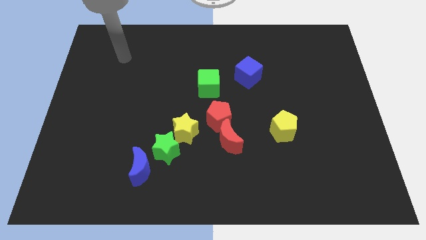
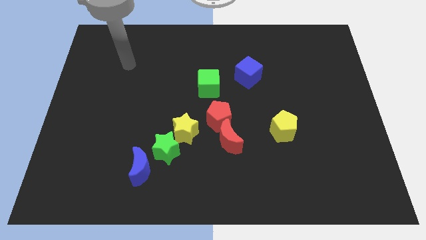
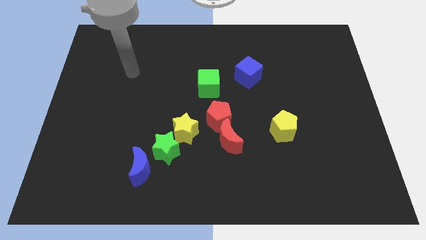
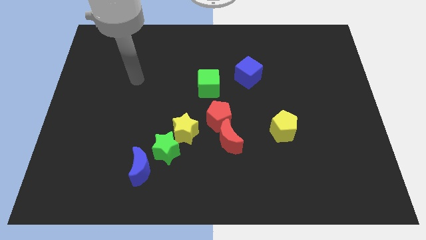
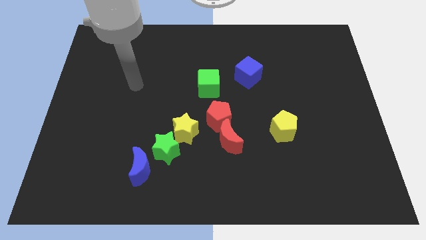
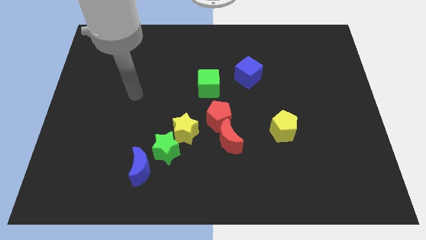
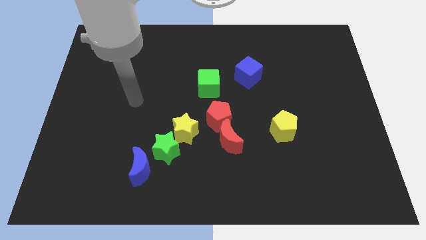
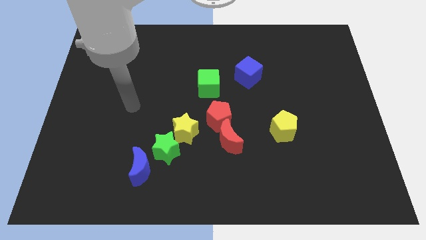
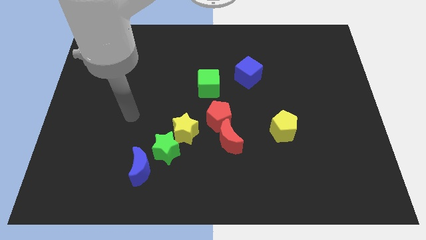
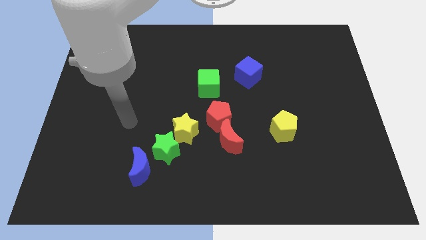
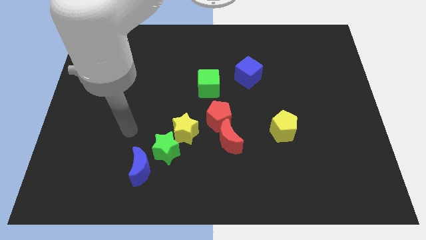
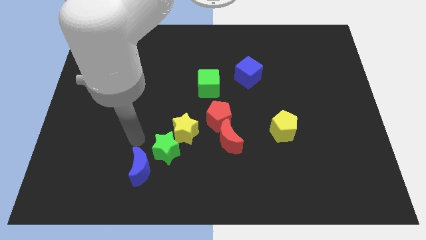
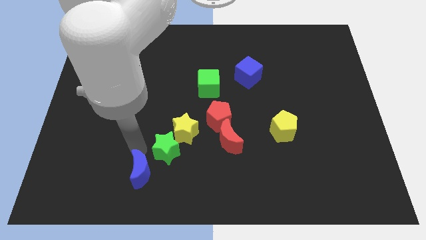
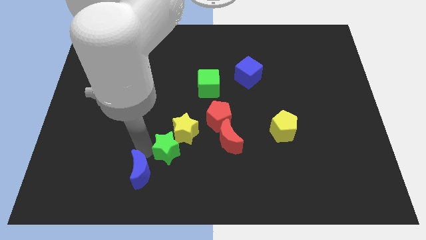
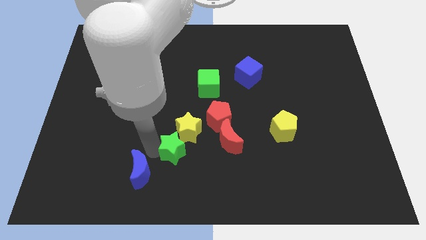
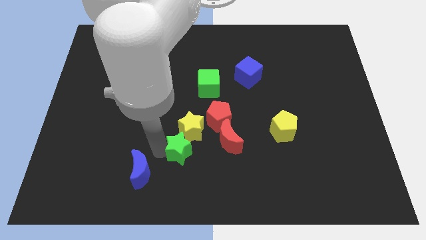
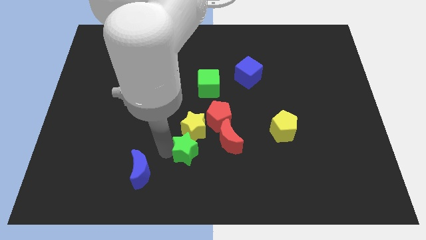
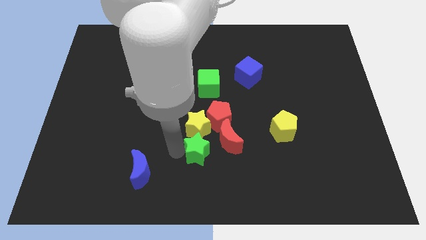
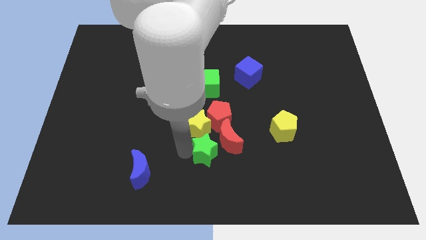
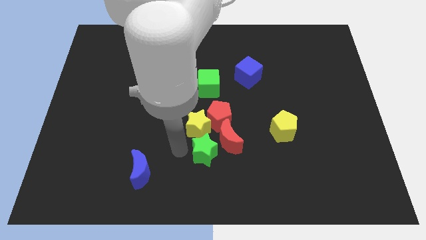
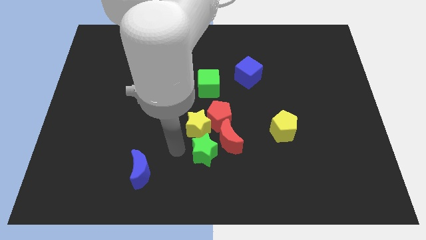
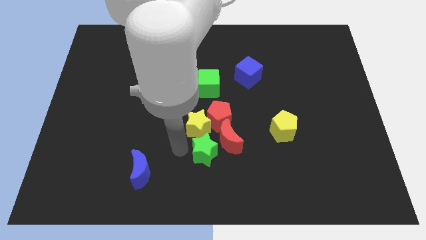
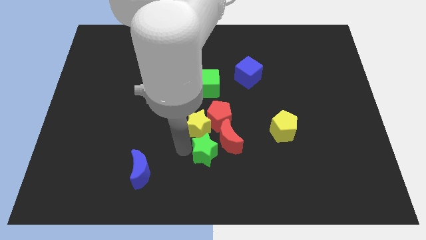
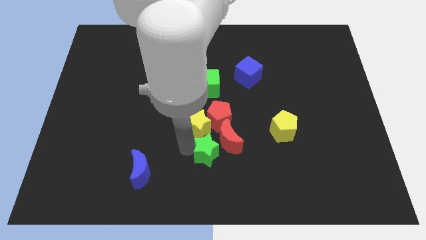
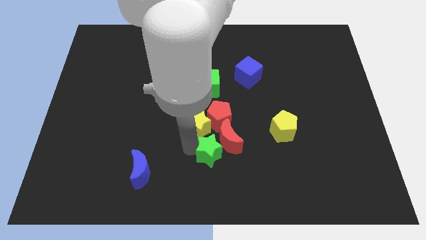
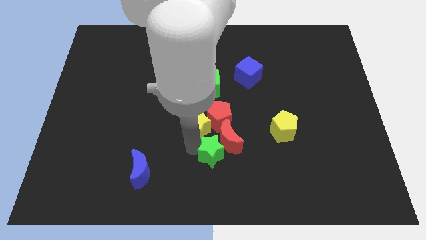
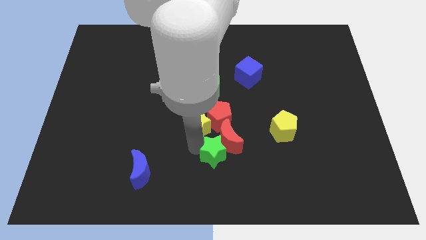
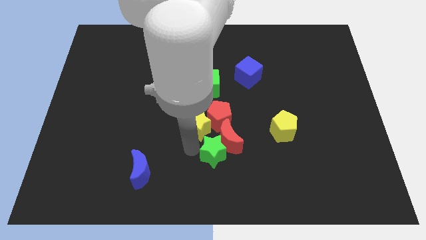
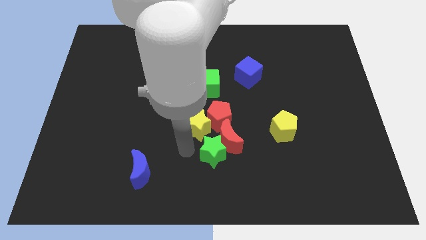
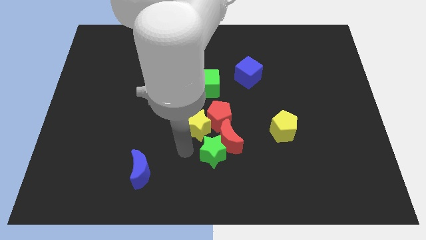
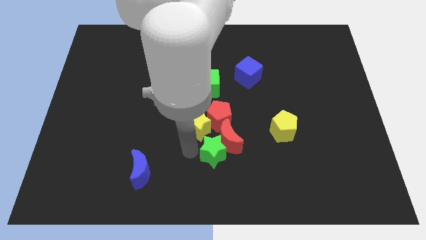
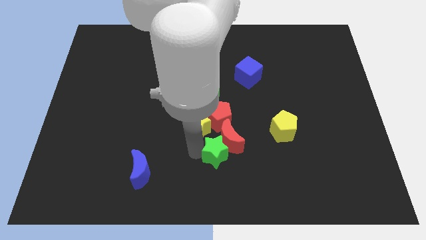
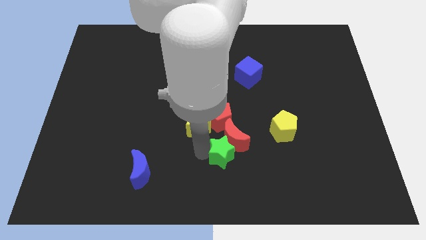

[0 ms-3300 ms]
pull the green star apart from the yellow star and blue moon

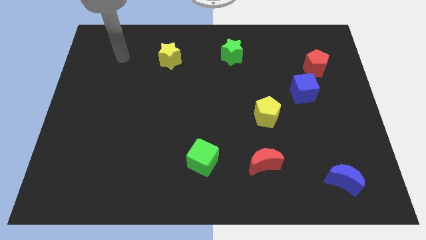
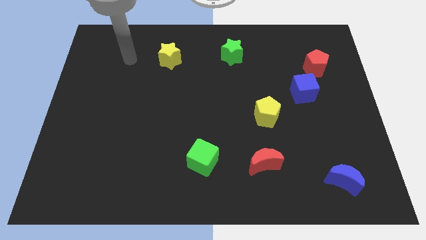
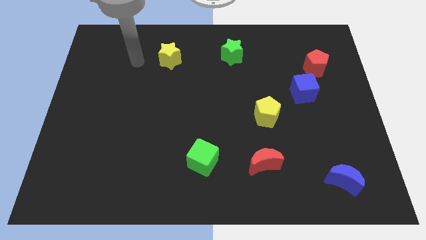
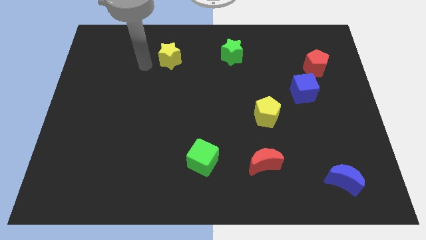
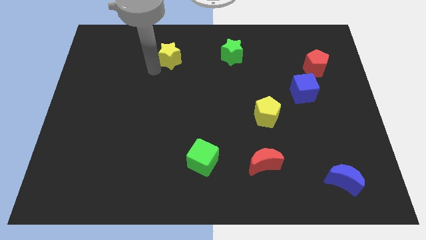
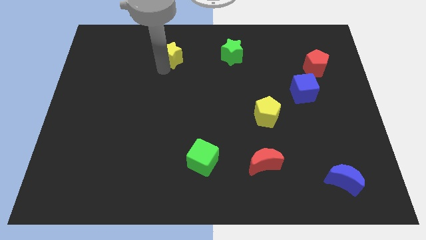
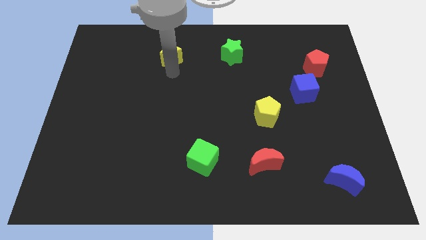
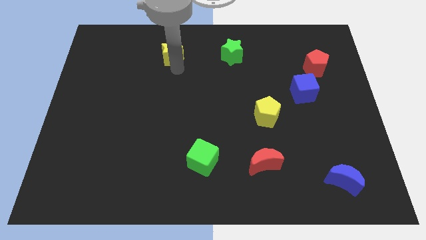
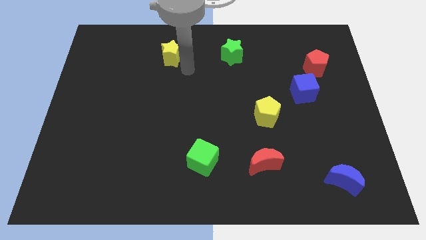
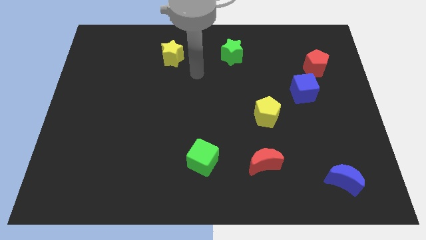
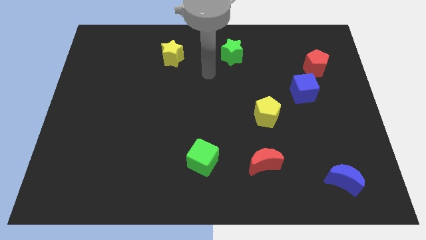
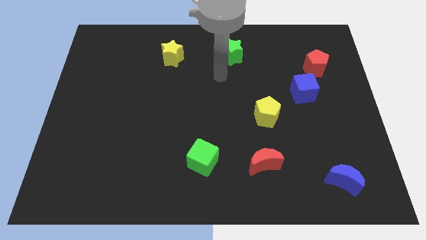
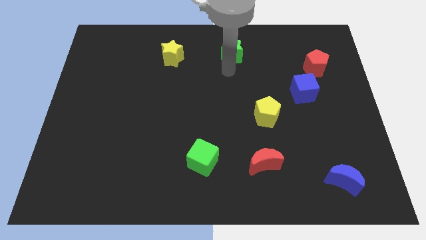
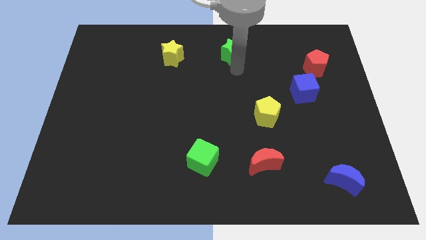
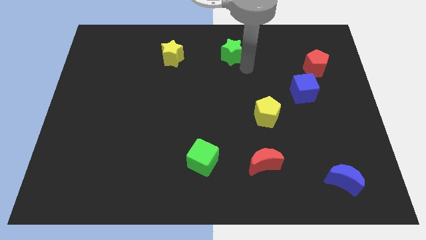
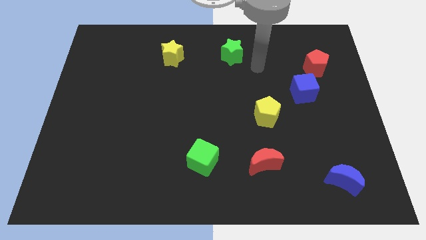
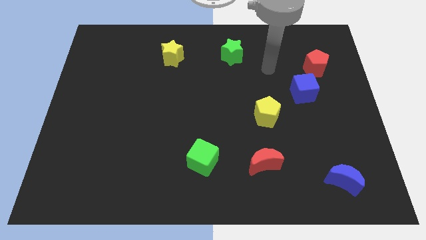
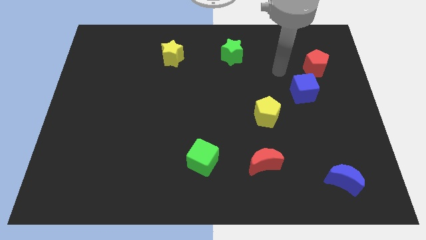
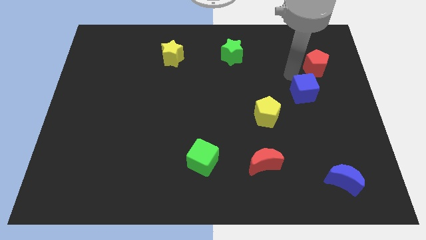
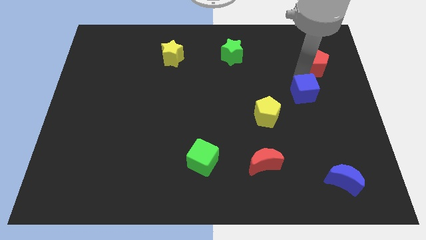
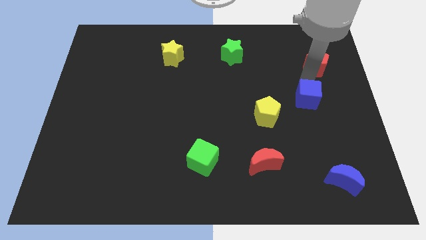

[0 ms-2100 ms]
separate the red pentagon from the blue cube

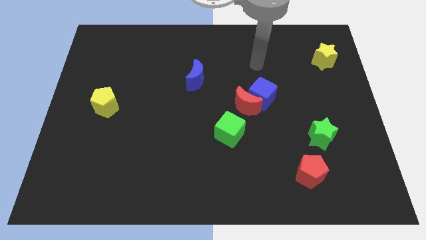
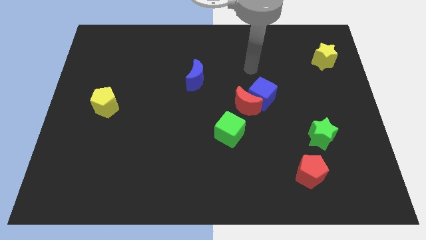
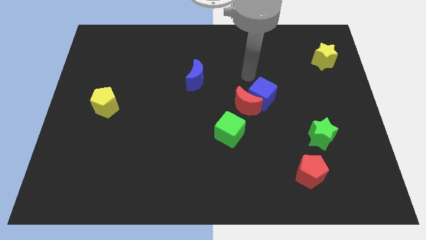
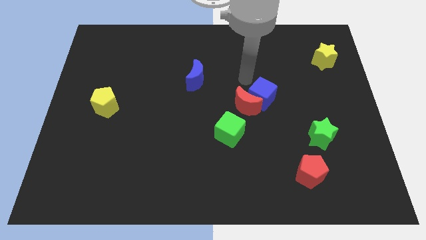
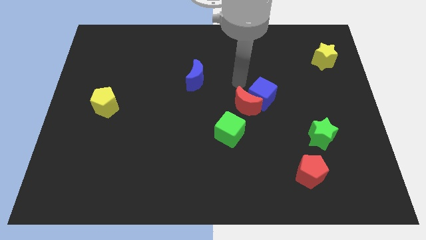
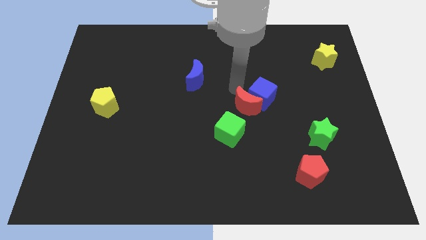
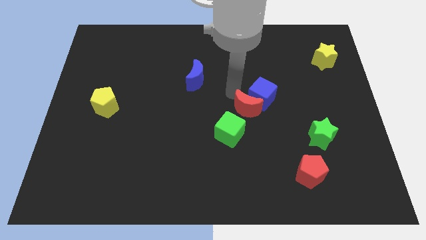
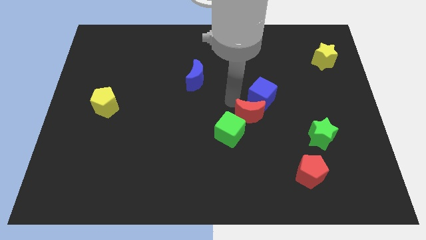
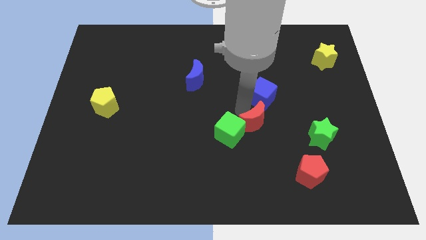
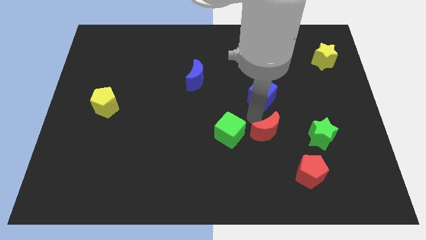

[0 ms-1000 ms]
move the blue cube away from the red moon

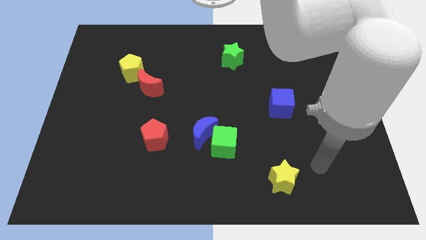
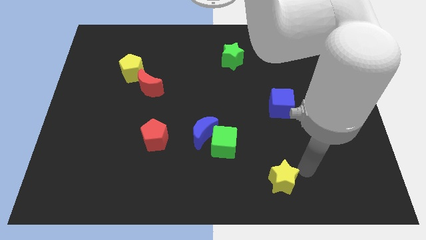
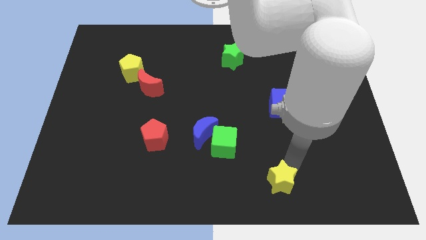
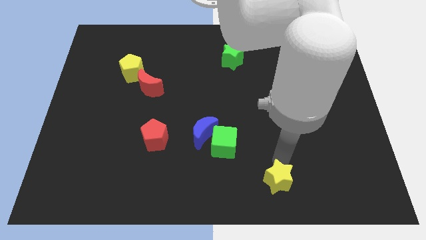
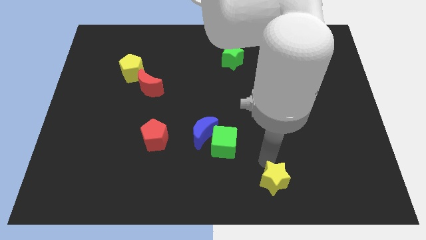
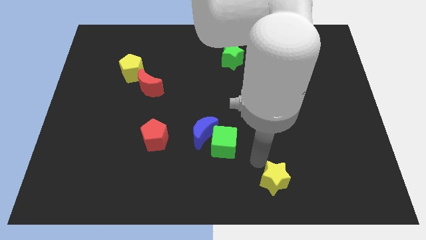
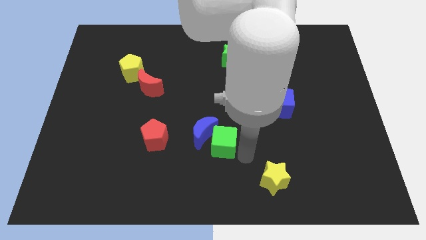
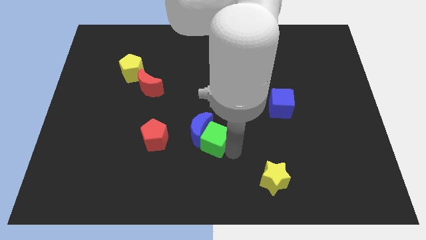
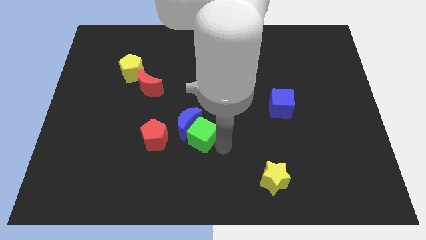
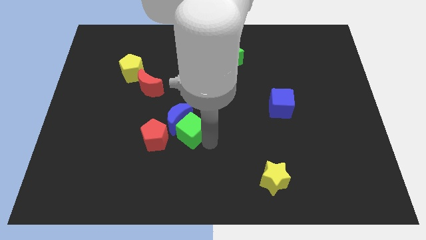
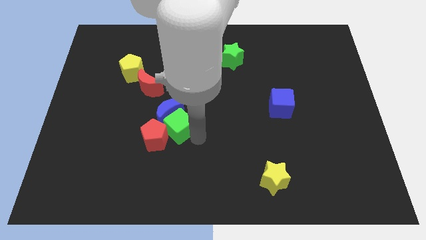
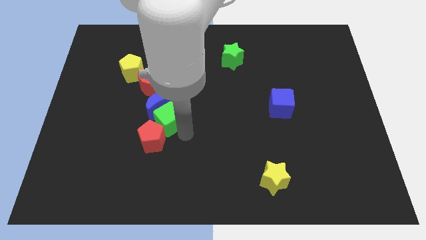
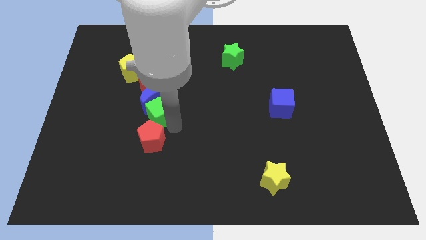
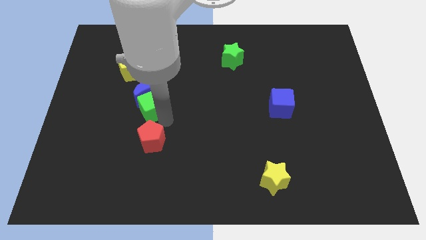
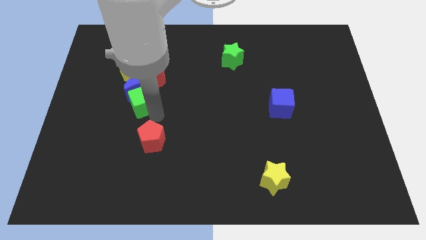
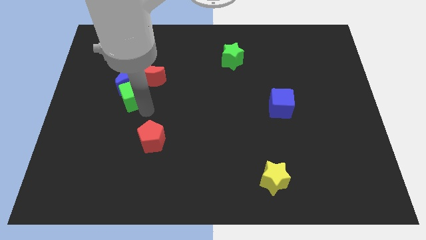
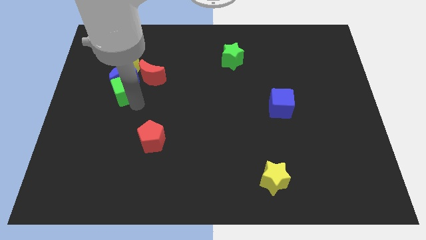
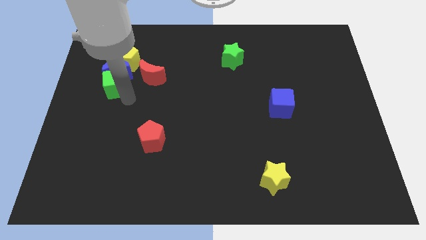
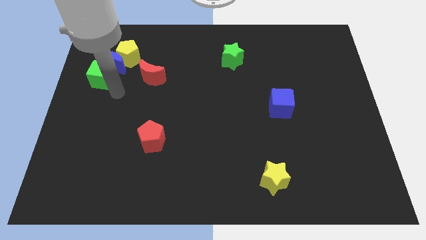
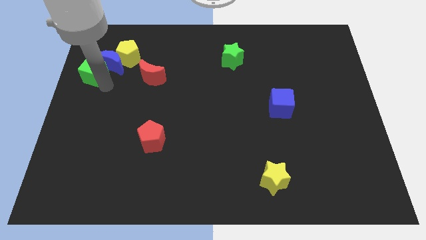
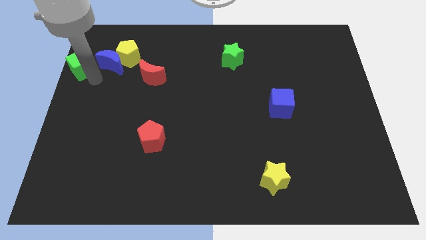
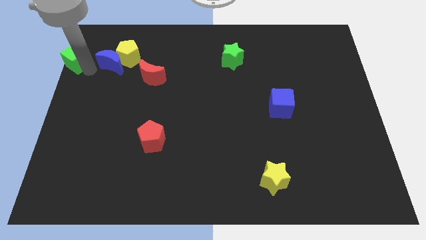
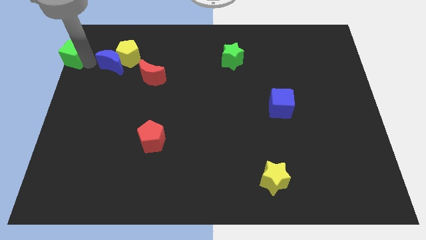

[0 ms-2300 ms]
pull the blue moon apart from the green cube

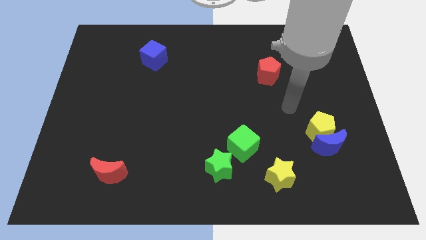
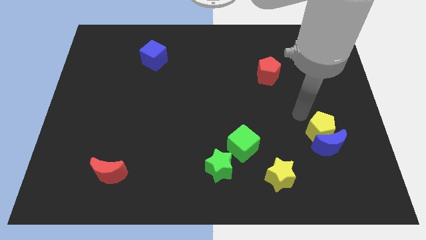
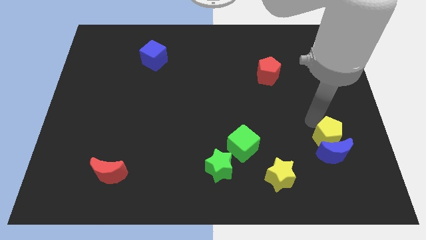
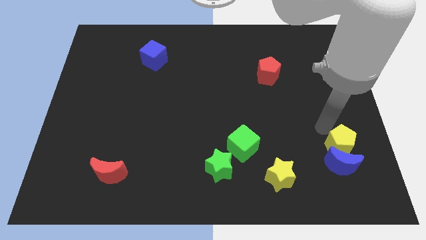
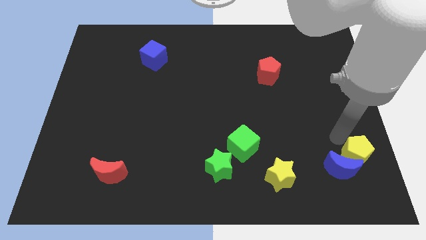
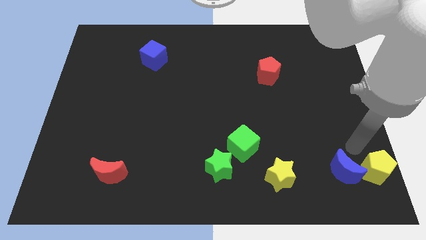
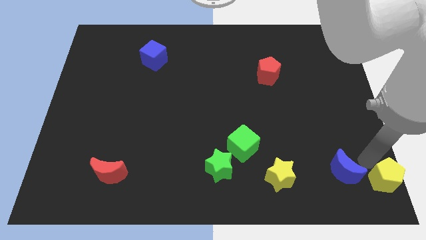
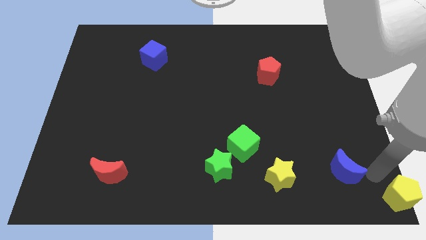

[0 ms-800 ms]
pull the blue moon apart from the yellow pentagon
